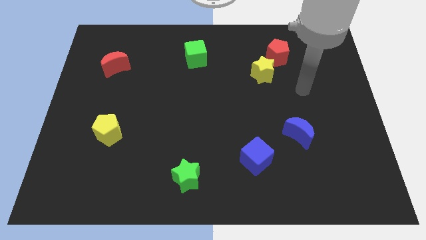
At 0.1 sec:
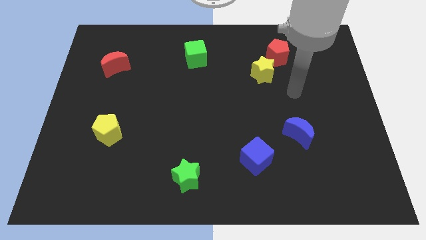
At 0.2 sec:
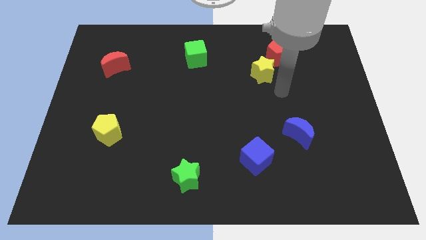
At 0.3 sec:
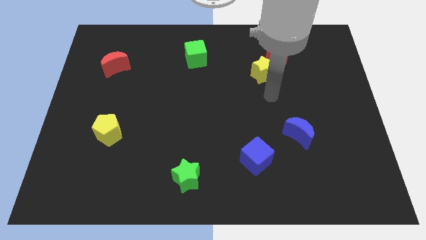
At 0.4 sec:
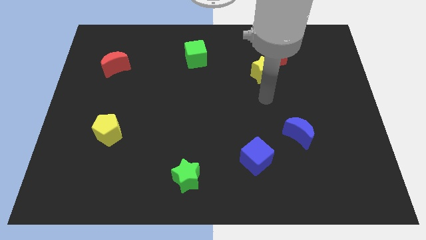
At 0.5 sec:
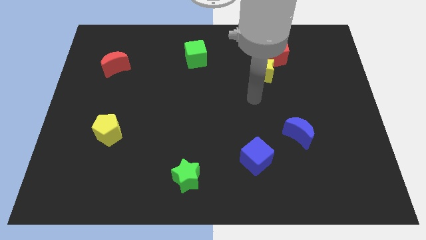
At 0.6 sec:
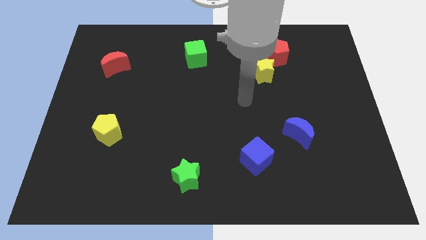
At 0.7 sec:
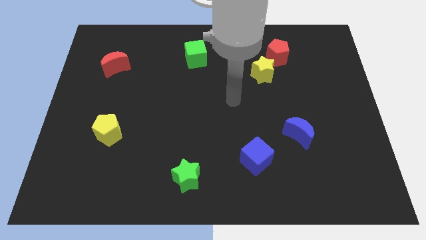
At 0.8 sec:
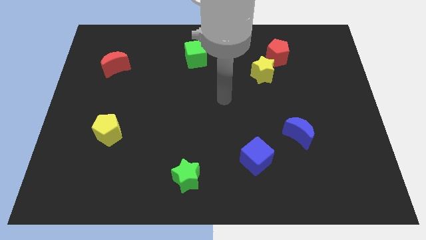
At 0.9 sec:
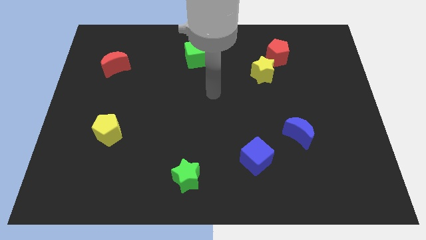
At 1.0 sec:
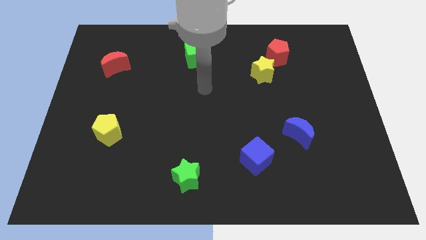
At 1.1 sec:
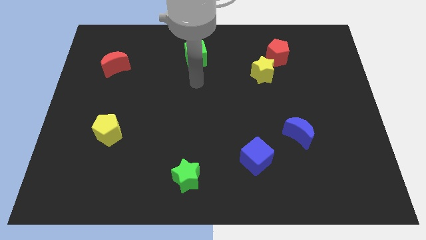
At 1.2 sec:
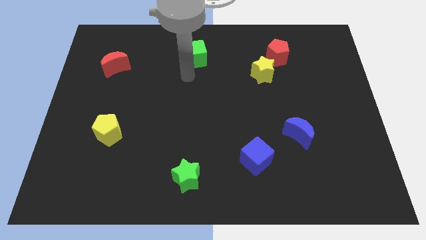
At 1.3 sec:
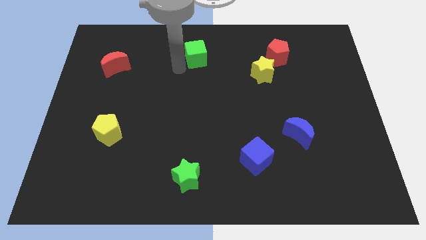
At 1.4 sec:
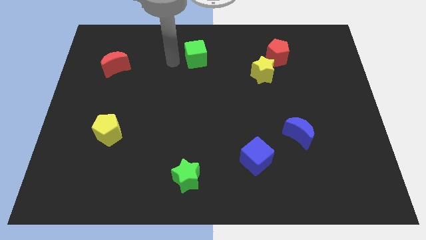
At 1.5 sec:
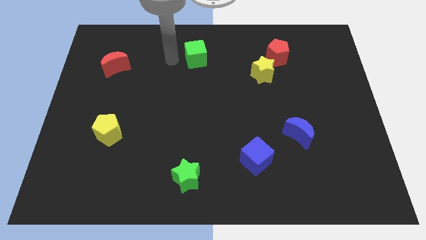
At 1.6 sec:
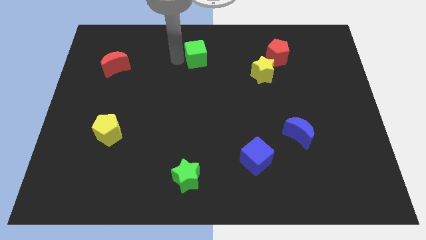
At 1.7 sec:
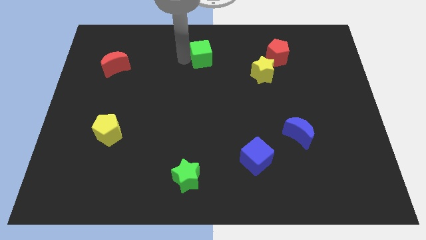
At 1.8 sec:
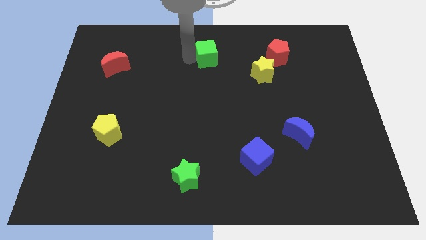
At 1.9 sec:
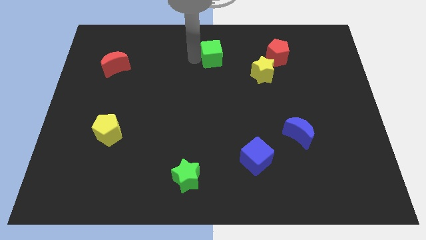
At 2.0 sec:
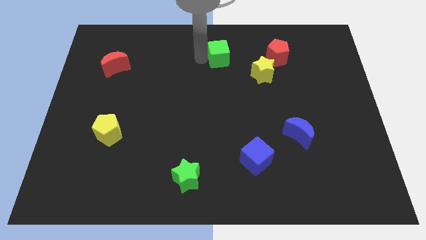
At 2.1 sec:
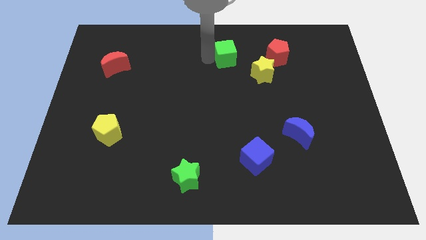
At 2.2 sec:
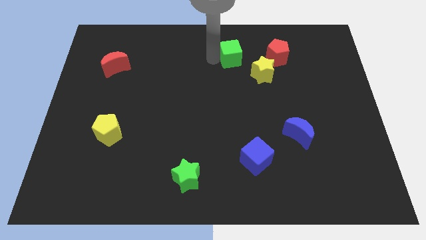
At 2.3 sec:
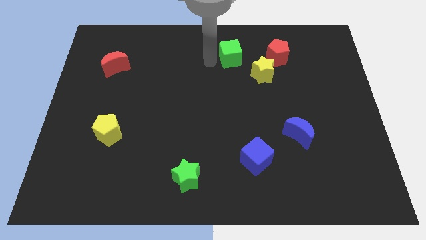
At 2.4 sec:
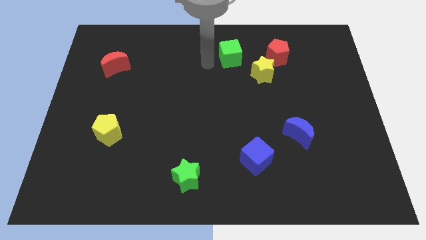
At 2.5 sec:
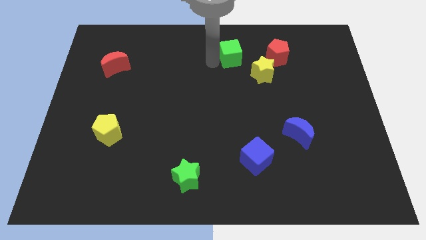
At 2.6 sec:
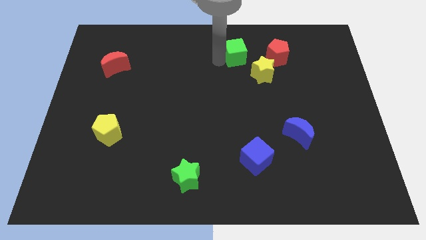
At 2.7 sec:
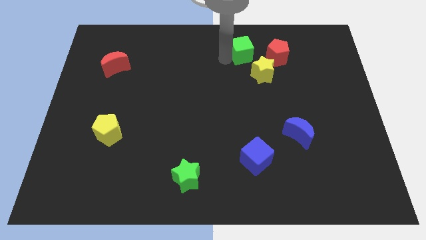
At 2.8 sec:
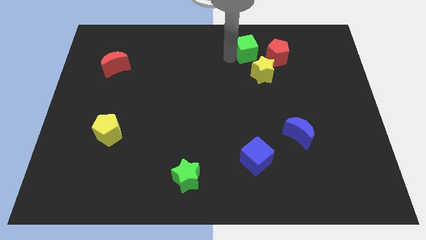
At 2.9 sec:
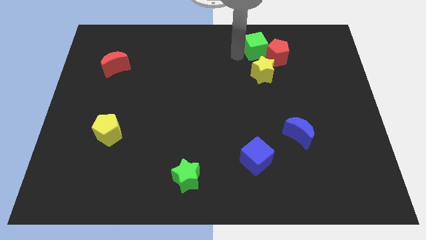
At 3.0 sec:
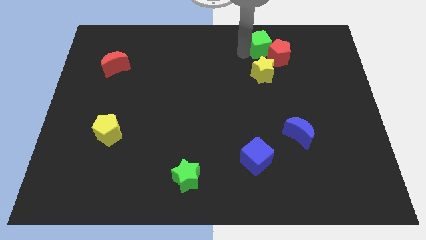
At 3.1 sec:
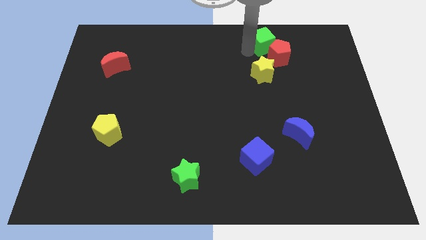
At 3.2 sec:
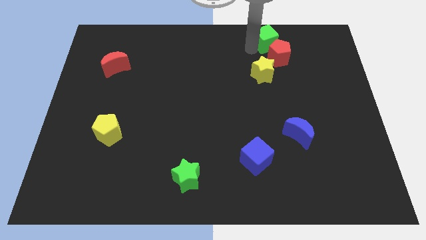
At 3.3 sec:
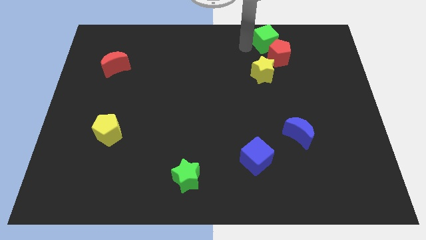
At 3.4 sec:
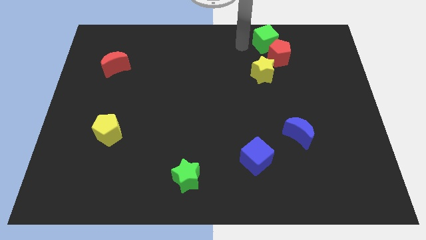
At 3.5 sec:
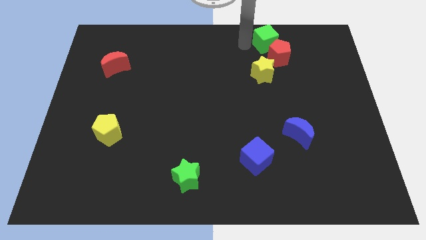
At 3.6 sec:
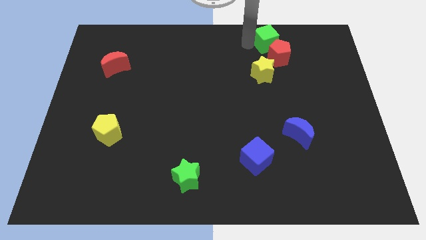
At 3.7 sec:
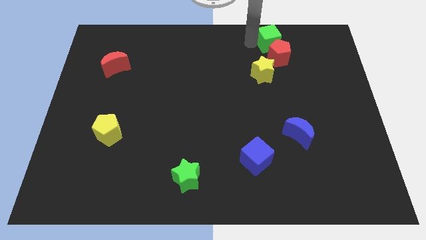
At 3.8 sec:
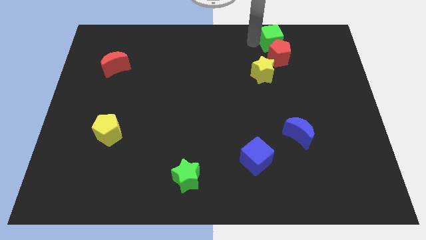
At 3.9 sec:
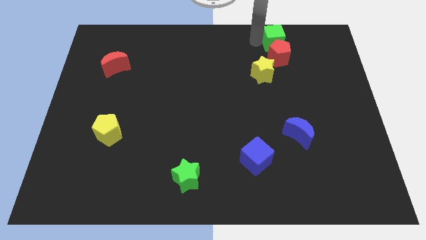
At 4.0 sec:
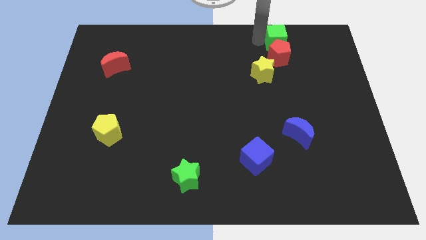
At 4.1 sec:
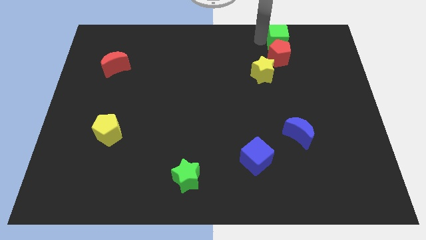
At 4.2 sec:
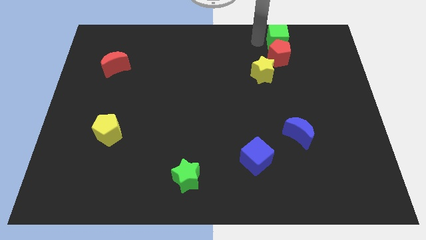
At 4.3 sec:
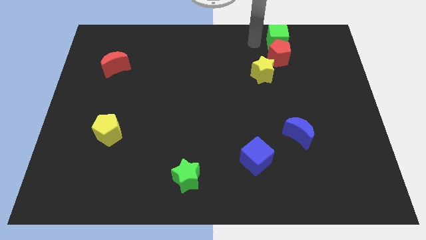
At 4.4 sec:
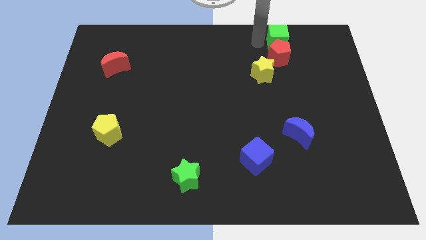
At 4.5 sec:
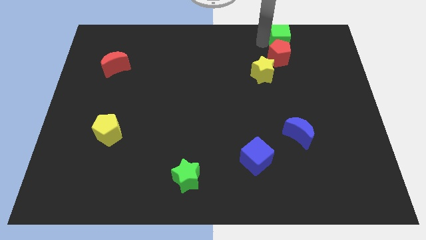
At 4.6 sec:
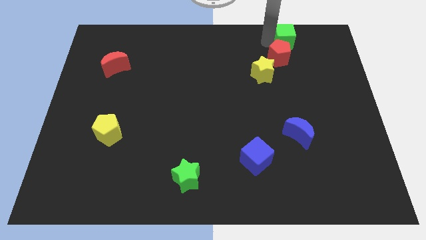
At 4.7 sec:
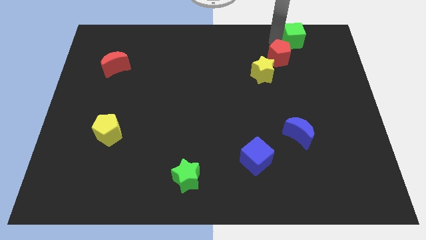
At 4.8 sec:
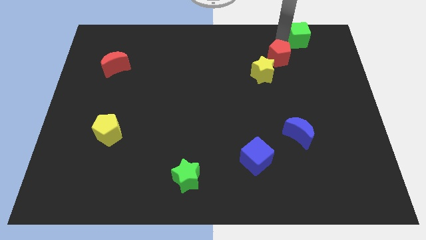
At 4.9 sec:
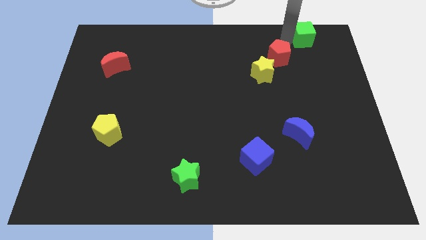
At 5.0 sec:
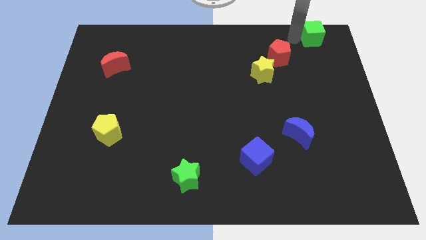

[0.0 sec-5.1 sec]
put the green cube to the top right of the board

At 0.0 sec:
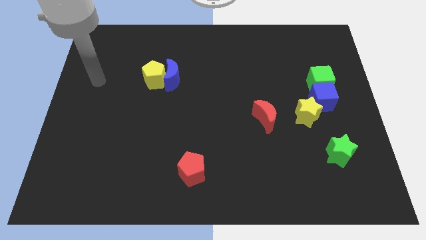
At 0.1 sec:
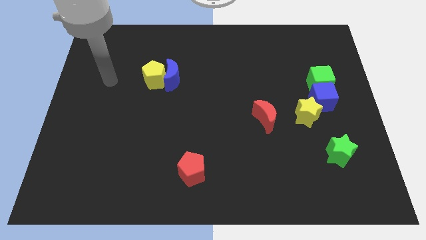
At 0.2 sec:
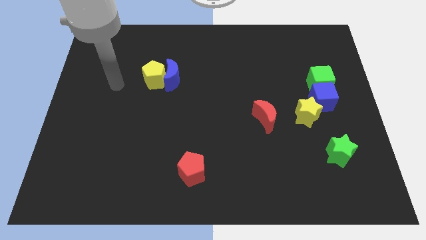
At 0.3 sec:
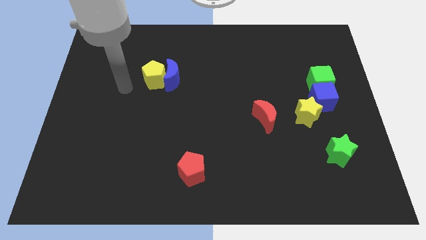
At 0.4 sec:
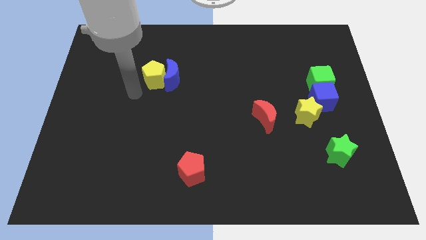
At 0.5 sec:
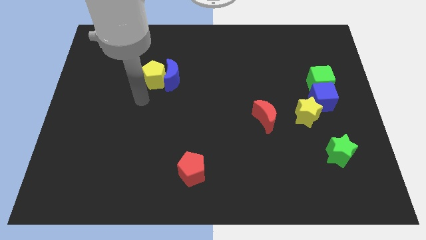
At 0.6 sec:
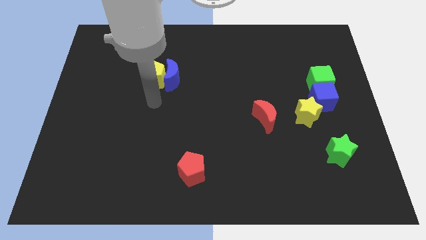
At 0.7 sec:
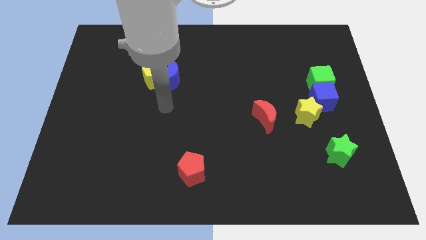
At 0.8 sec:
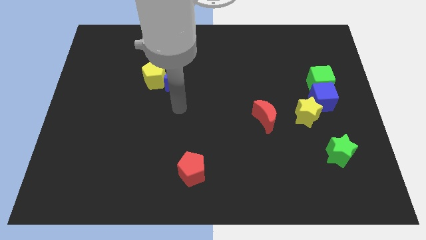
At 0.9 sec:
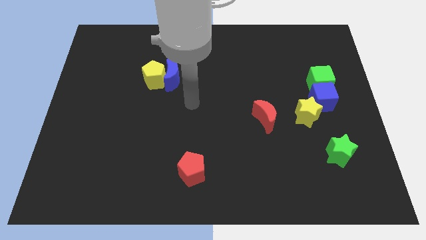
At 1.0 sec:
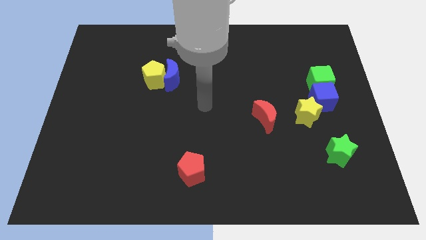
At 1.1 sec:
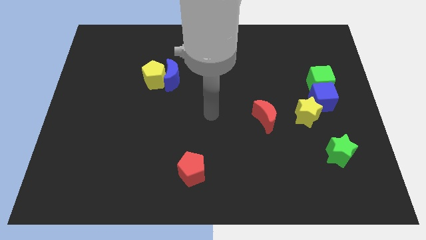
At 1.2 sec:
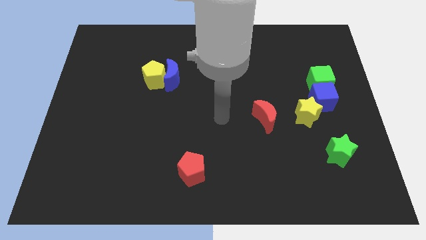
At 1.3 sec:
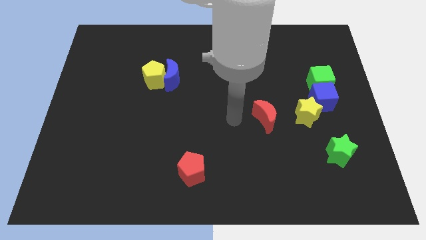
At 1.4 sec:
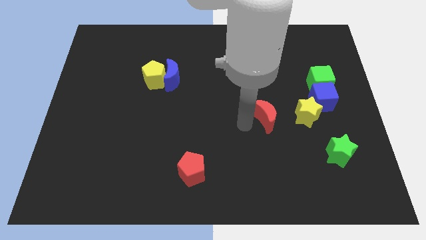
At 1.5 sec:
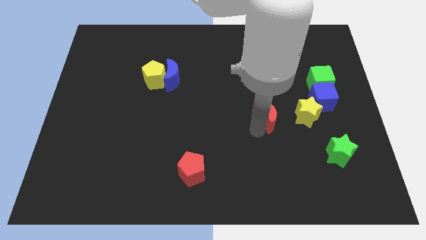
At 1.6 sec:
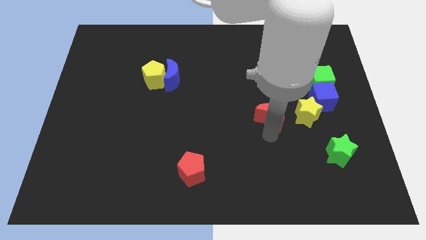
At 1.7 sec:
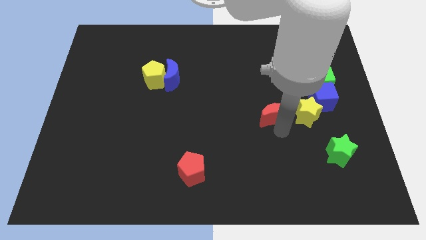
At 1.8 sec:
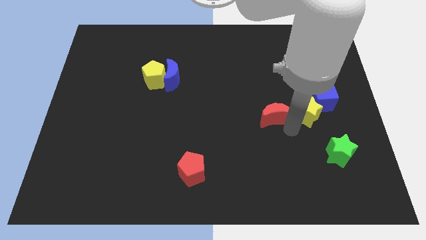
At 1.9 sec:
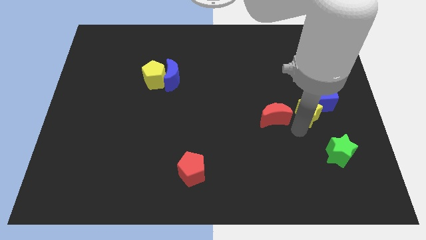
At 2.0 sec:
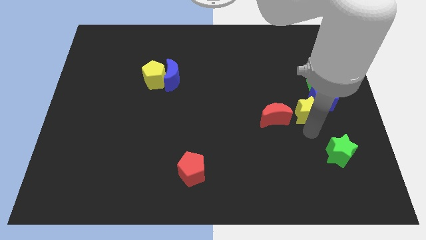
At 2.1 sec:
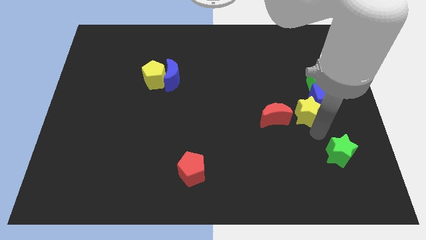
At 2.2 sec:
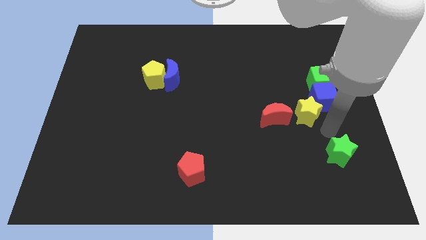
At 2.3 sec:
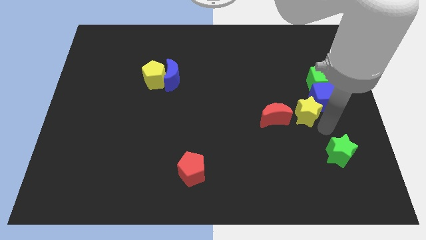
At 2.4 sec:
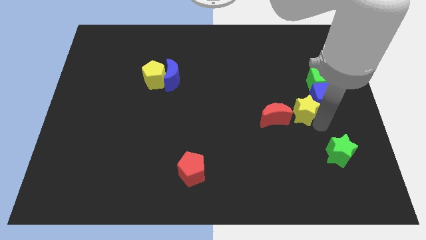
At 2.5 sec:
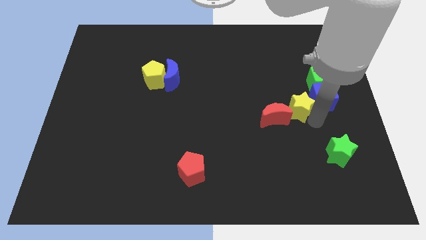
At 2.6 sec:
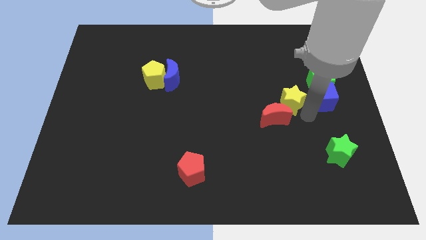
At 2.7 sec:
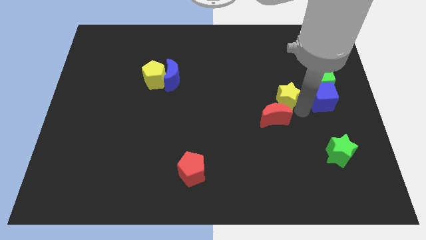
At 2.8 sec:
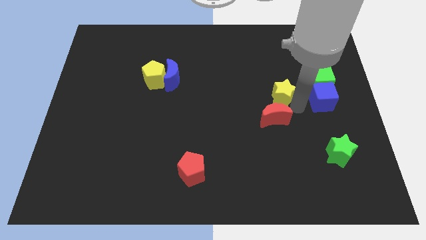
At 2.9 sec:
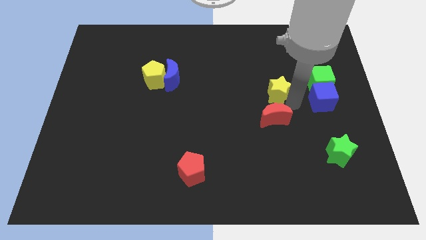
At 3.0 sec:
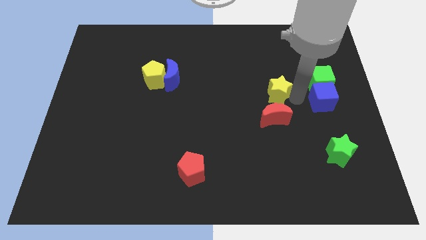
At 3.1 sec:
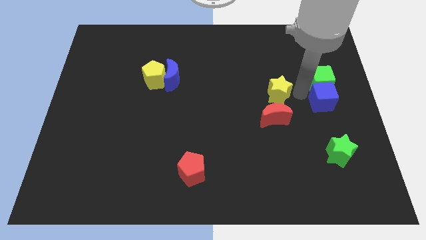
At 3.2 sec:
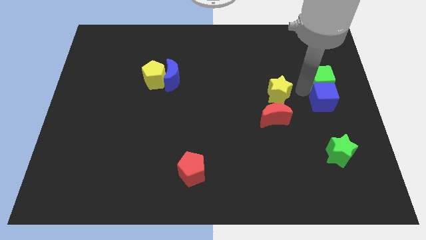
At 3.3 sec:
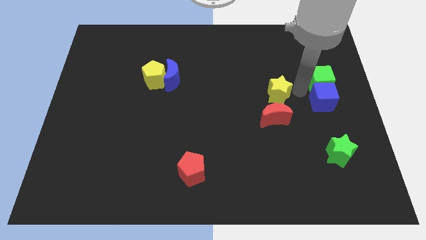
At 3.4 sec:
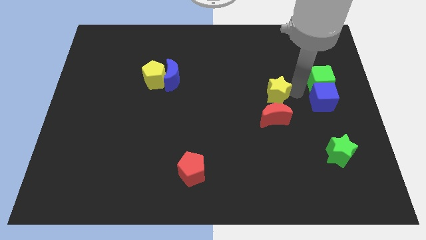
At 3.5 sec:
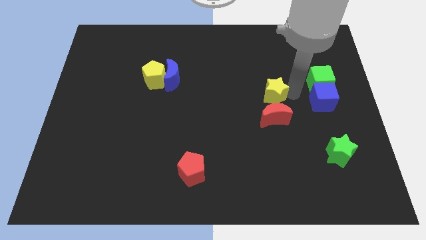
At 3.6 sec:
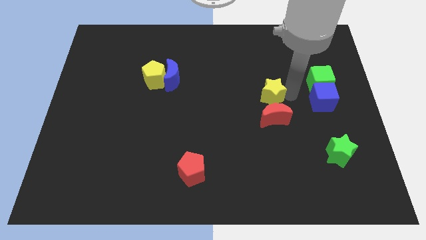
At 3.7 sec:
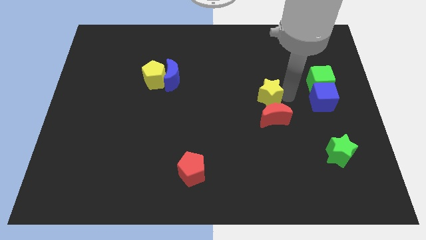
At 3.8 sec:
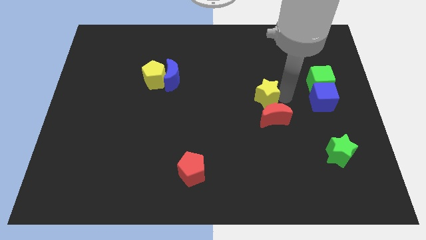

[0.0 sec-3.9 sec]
slide the yellow star to the center of the board
